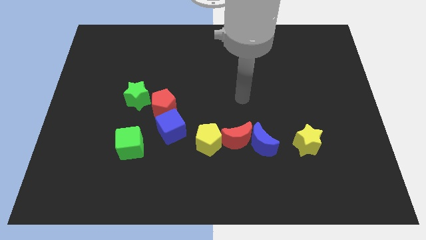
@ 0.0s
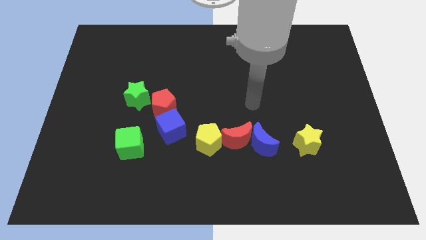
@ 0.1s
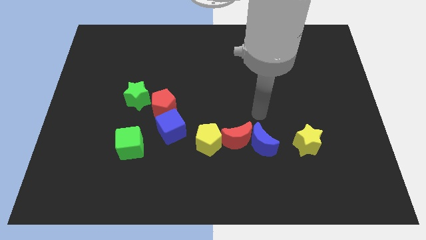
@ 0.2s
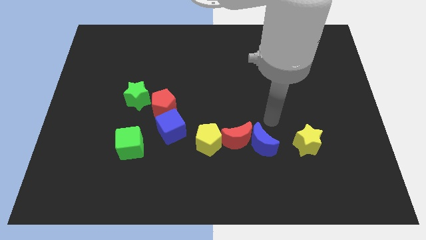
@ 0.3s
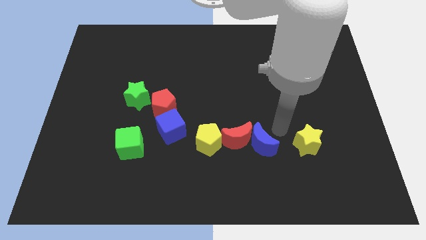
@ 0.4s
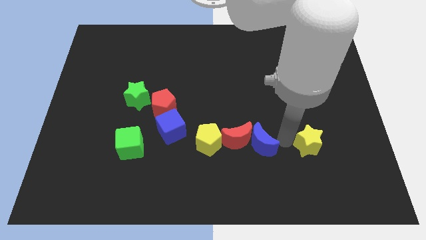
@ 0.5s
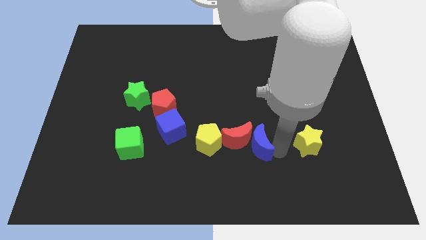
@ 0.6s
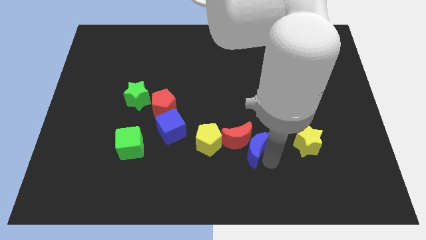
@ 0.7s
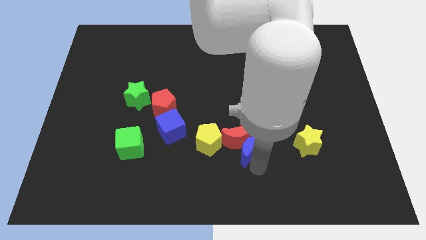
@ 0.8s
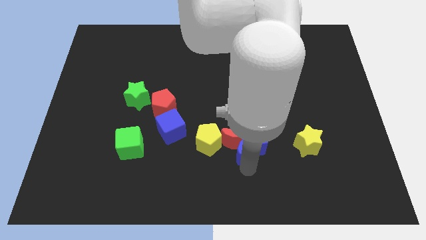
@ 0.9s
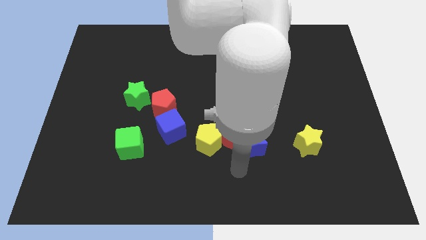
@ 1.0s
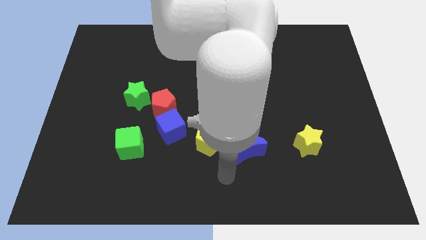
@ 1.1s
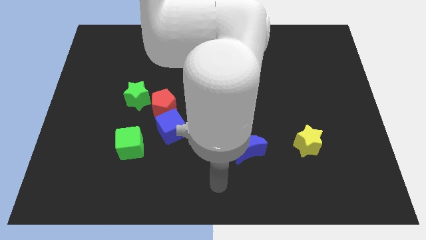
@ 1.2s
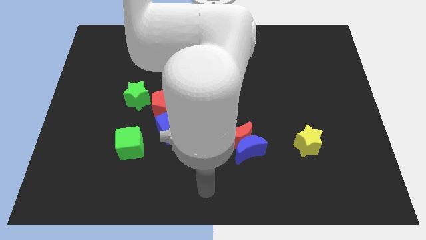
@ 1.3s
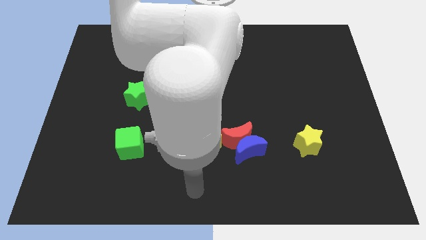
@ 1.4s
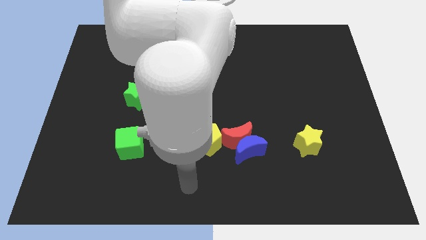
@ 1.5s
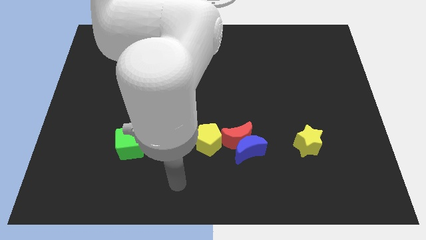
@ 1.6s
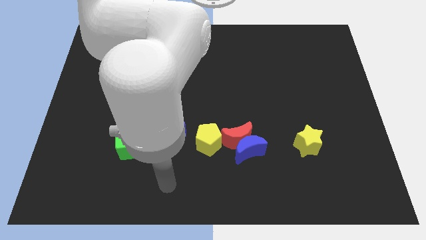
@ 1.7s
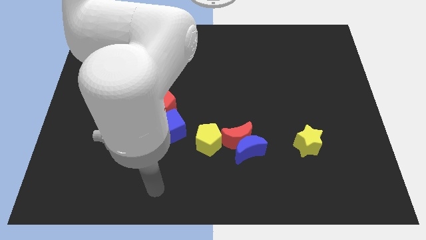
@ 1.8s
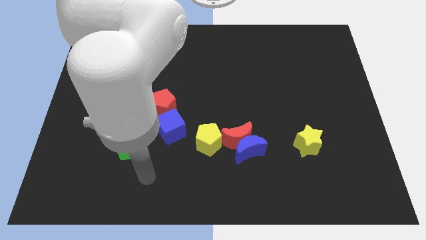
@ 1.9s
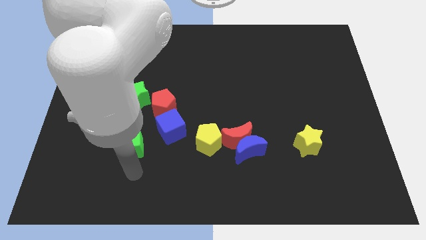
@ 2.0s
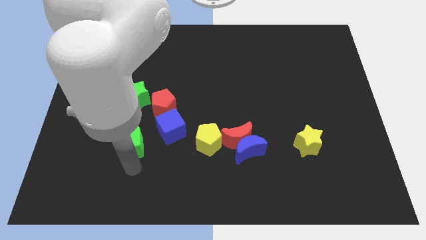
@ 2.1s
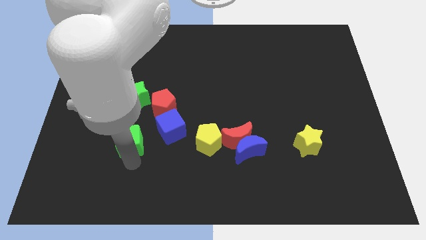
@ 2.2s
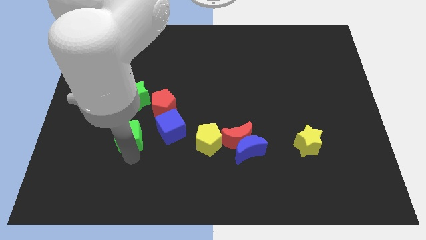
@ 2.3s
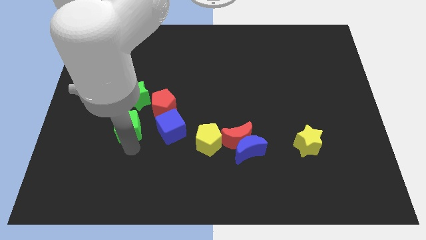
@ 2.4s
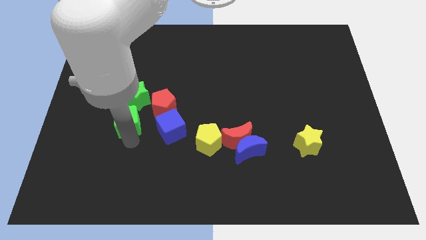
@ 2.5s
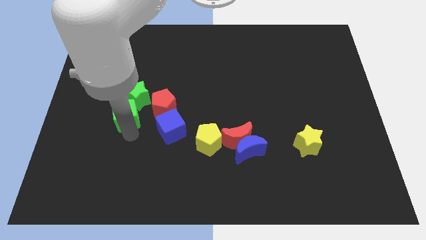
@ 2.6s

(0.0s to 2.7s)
slide the green cube up somewhat

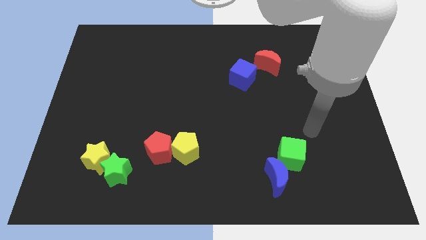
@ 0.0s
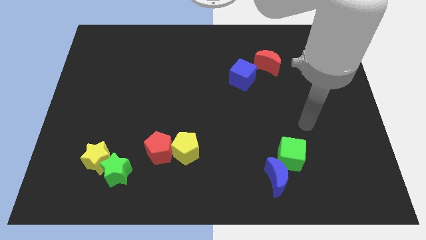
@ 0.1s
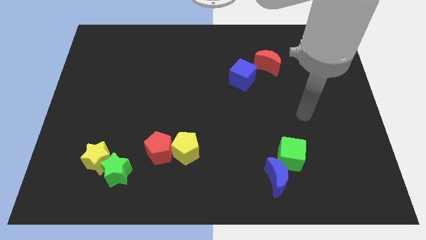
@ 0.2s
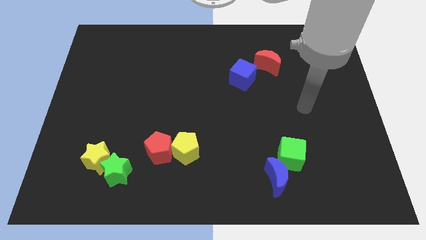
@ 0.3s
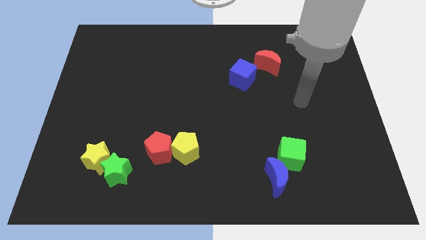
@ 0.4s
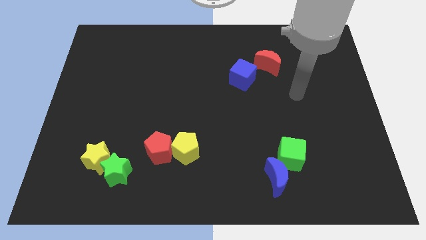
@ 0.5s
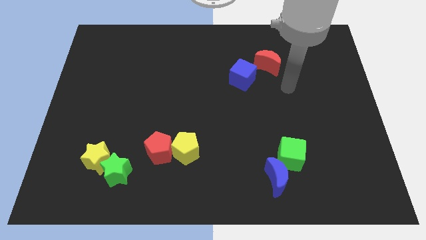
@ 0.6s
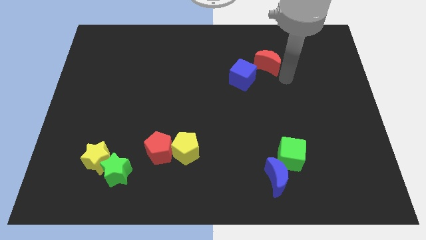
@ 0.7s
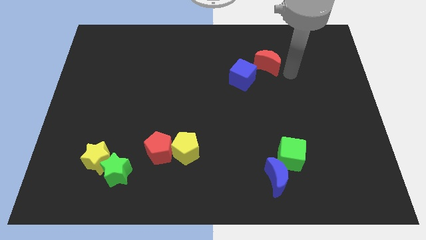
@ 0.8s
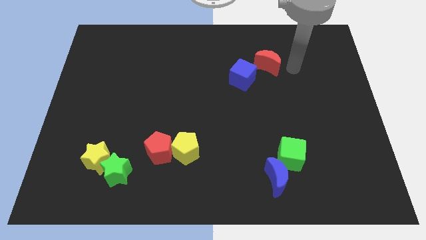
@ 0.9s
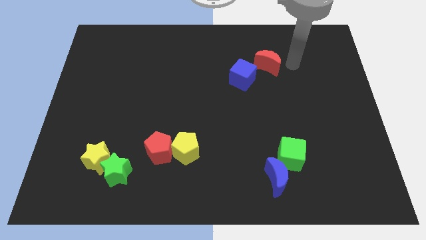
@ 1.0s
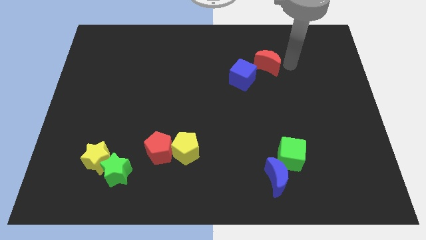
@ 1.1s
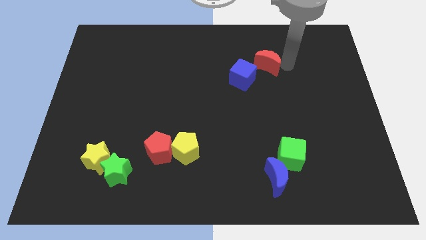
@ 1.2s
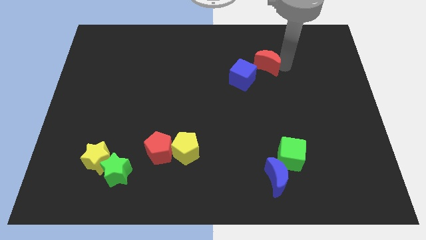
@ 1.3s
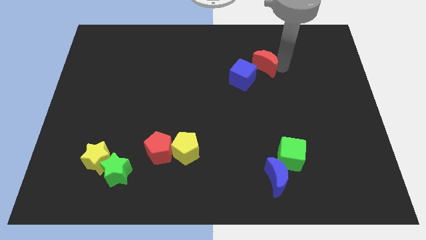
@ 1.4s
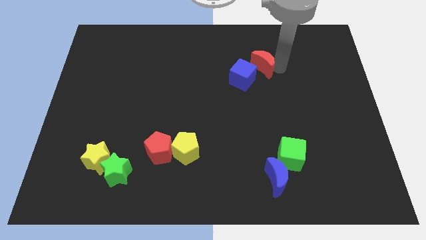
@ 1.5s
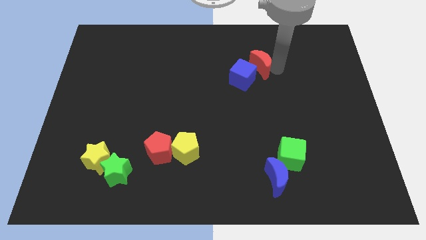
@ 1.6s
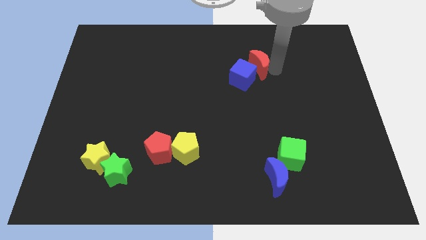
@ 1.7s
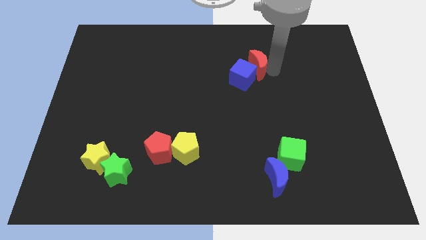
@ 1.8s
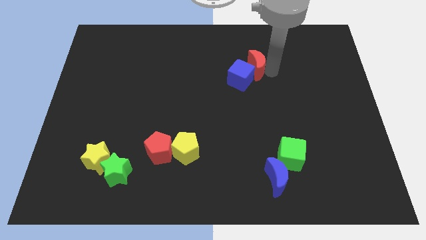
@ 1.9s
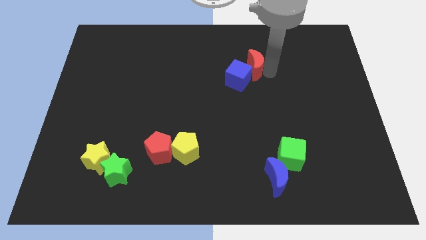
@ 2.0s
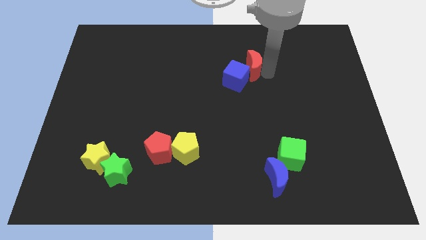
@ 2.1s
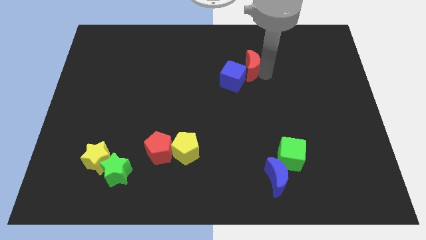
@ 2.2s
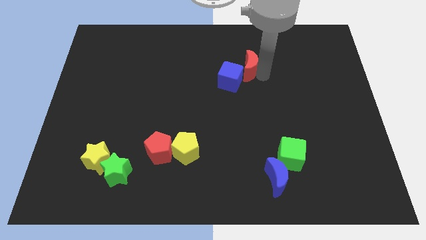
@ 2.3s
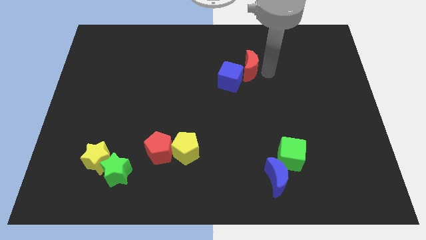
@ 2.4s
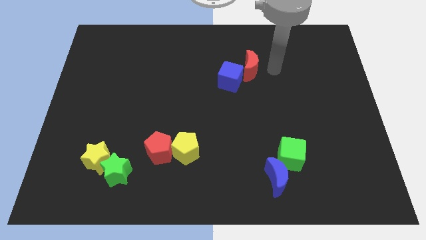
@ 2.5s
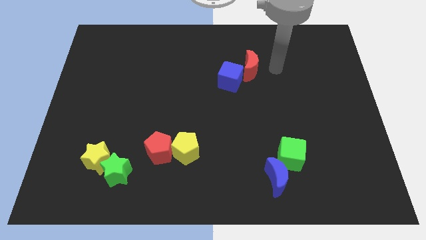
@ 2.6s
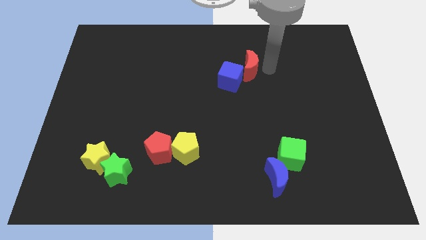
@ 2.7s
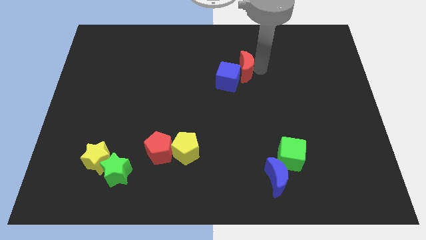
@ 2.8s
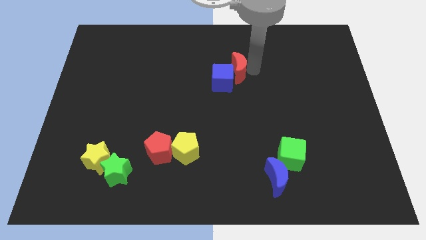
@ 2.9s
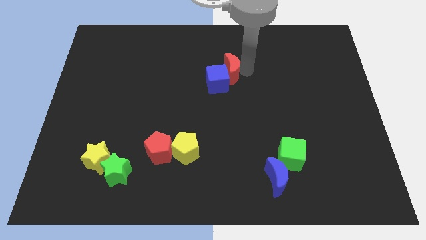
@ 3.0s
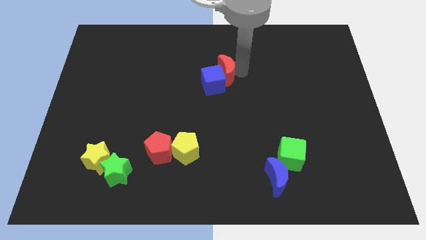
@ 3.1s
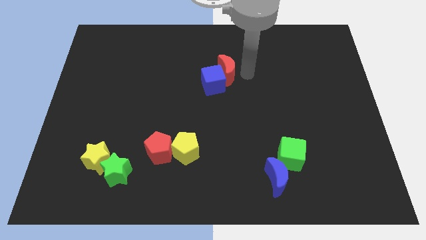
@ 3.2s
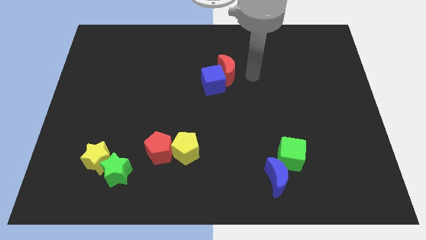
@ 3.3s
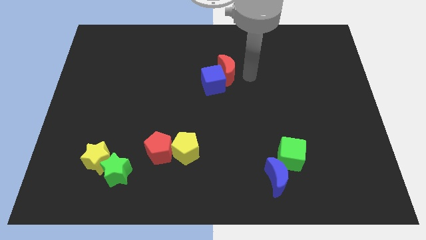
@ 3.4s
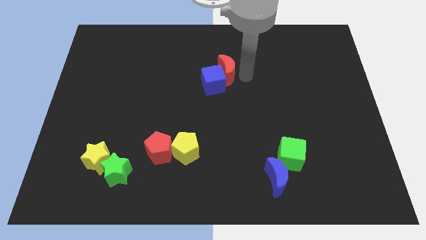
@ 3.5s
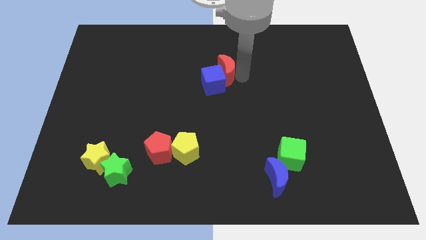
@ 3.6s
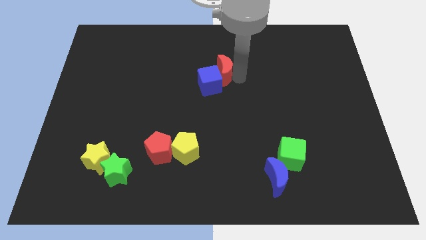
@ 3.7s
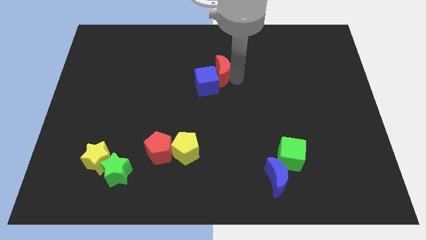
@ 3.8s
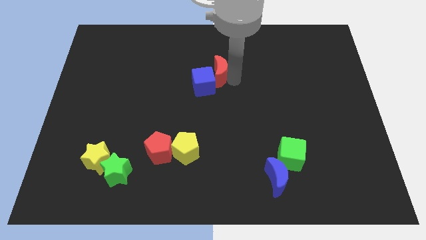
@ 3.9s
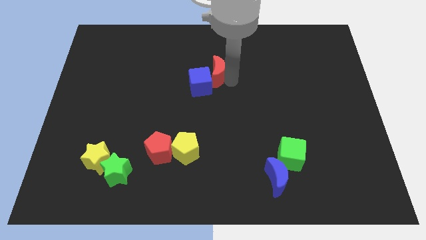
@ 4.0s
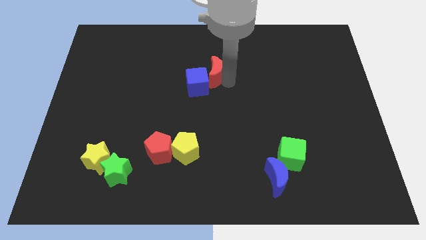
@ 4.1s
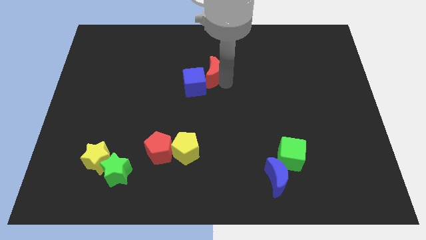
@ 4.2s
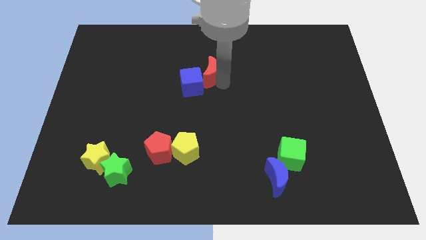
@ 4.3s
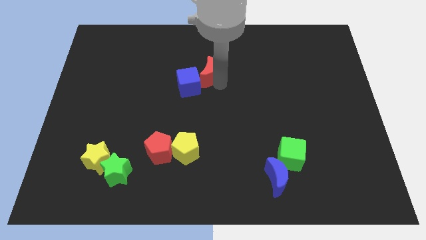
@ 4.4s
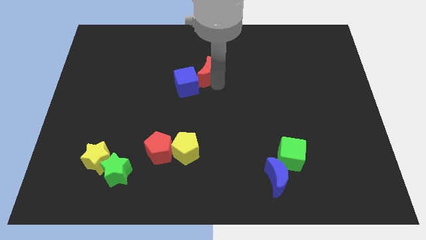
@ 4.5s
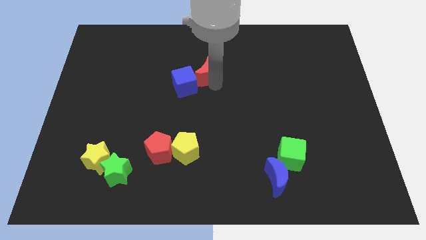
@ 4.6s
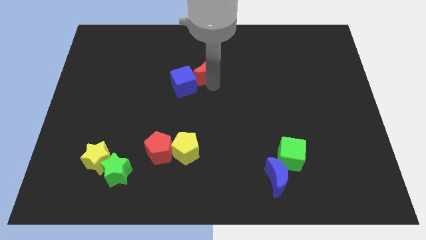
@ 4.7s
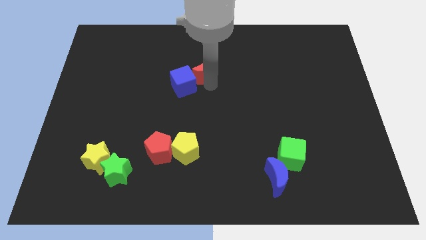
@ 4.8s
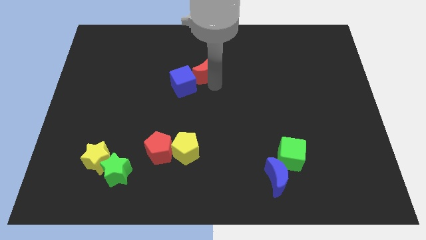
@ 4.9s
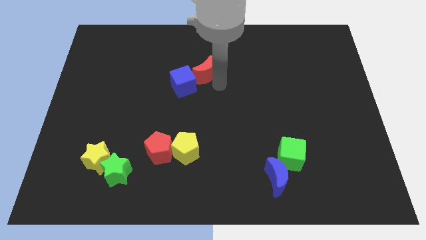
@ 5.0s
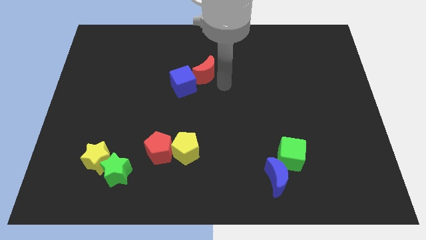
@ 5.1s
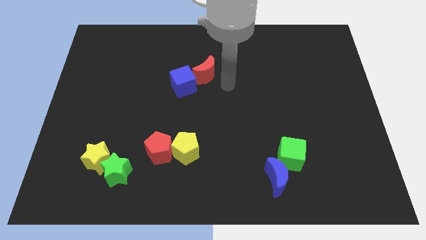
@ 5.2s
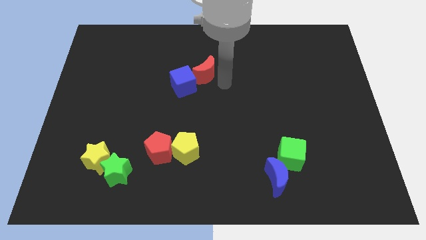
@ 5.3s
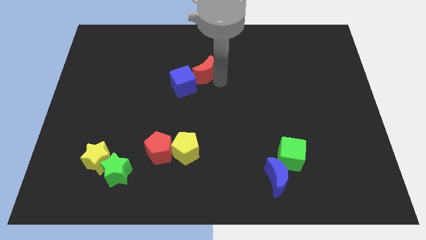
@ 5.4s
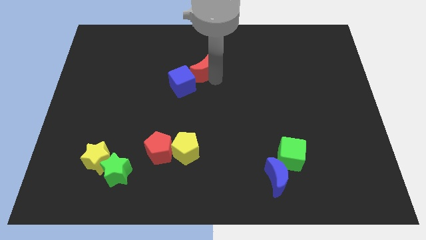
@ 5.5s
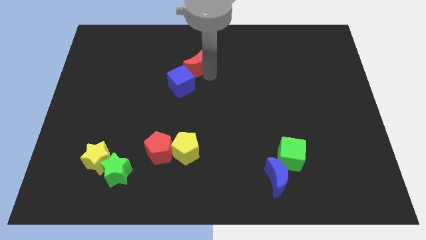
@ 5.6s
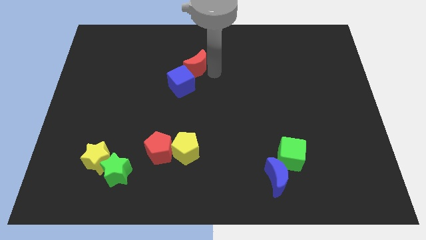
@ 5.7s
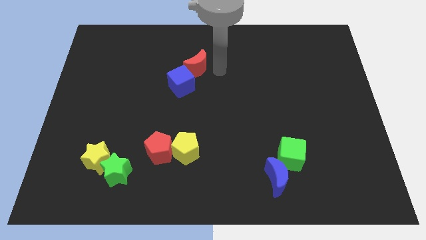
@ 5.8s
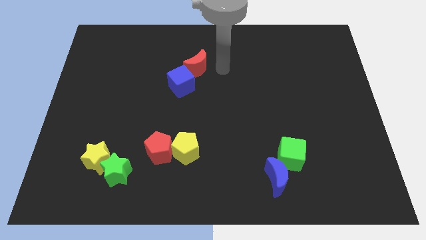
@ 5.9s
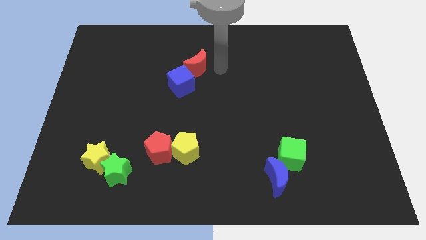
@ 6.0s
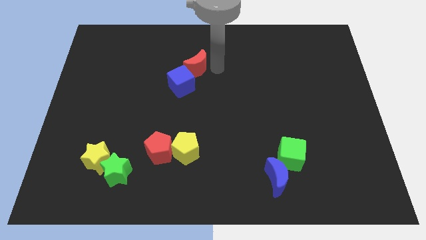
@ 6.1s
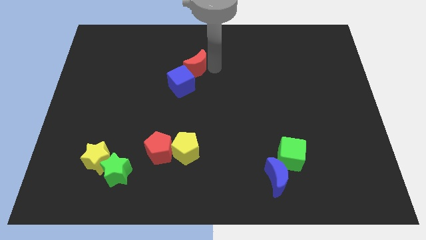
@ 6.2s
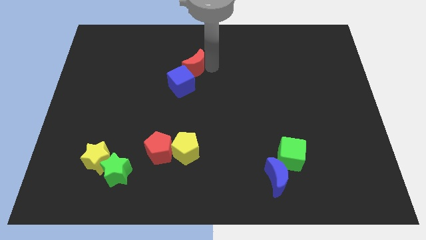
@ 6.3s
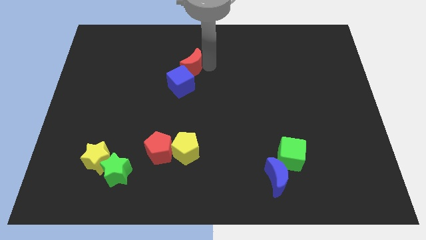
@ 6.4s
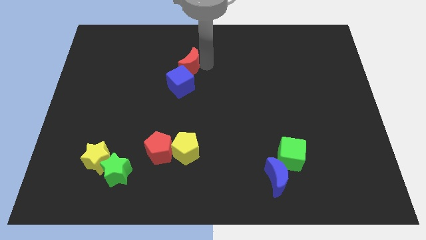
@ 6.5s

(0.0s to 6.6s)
push the red moon left
